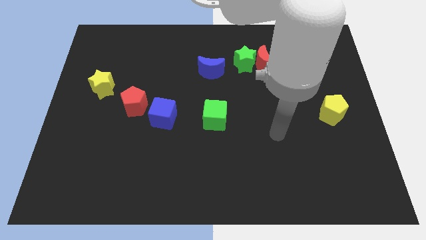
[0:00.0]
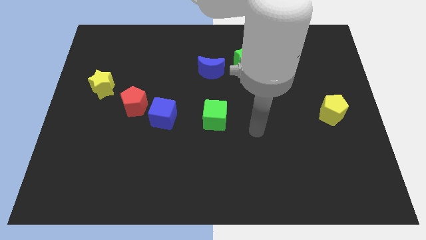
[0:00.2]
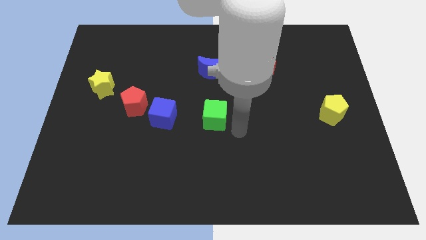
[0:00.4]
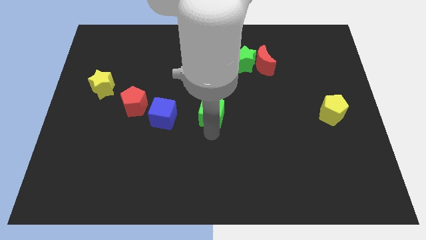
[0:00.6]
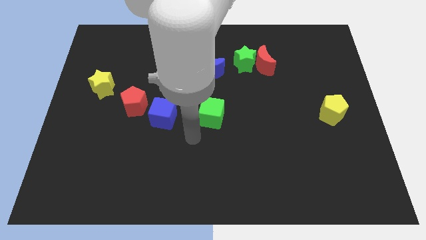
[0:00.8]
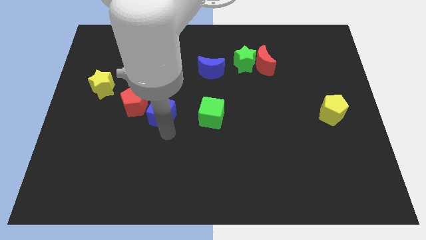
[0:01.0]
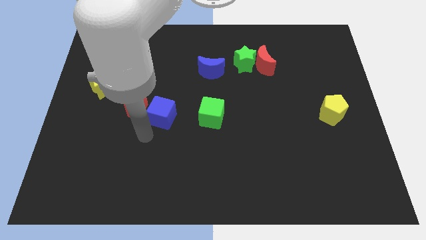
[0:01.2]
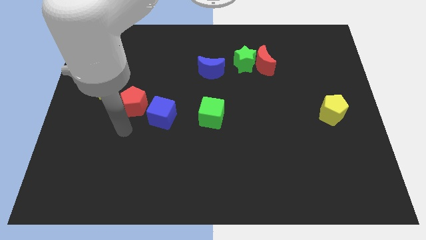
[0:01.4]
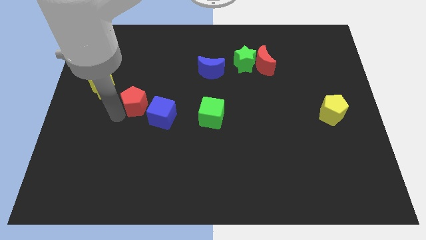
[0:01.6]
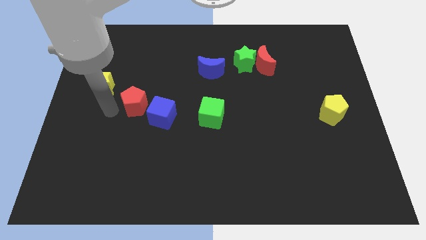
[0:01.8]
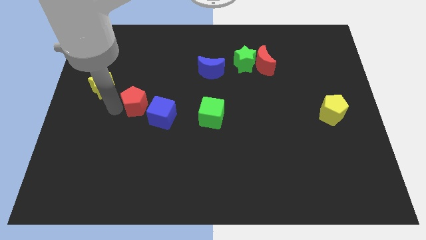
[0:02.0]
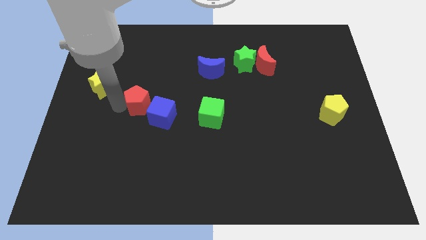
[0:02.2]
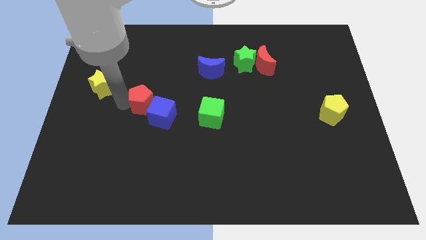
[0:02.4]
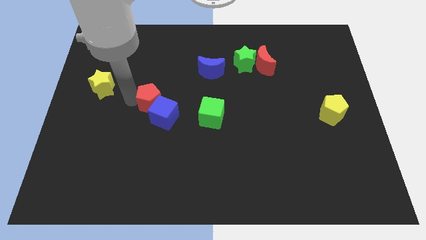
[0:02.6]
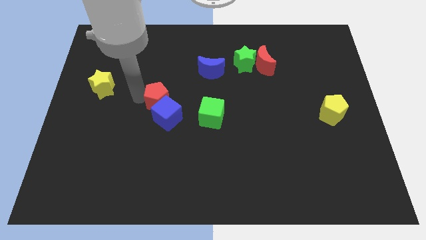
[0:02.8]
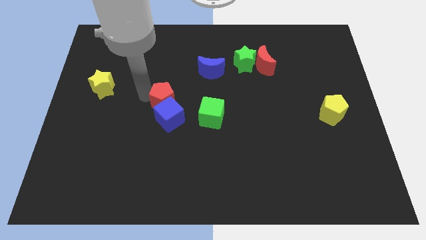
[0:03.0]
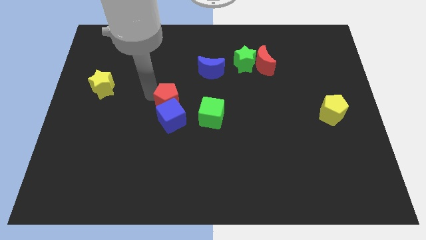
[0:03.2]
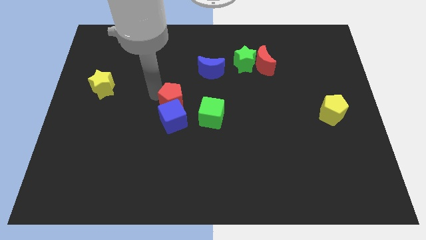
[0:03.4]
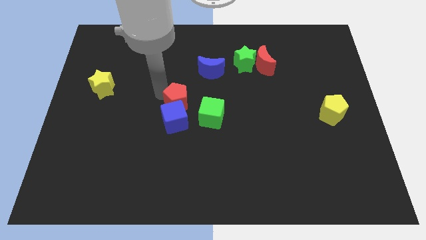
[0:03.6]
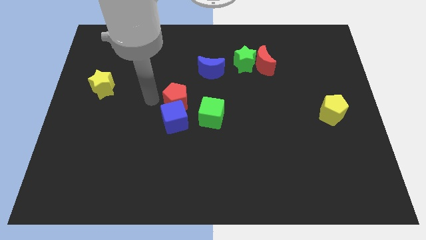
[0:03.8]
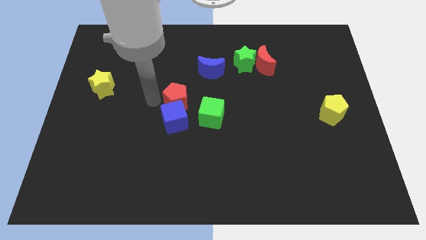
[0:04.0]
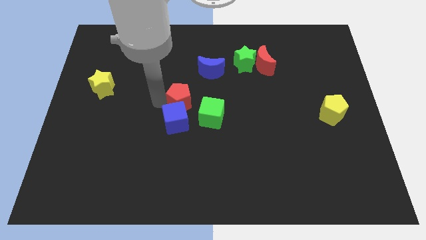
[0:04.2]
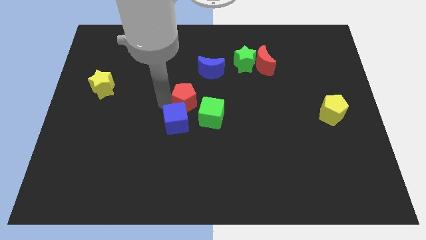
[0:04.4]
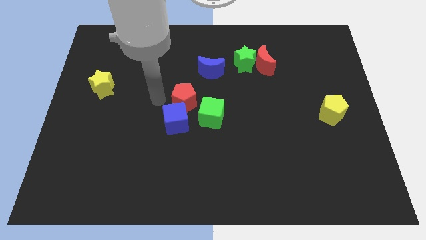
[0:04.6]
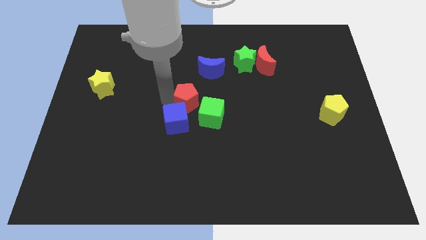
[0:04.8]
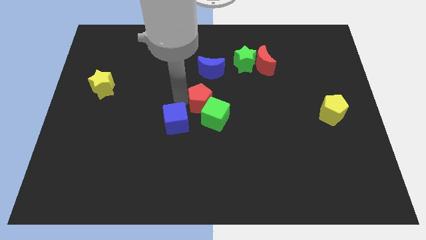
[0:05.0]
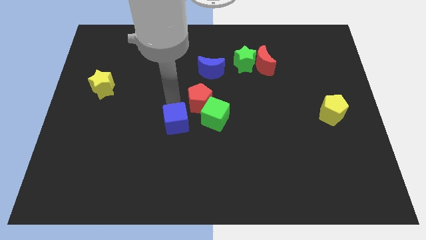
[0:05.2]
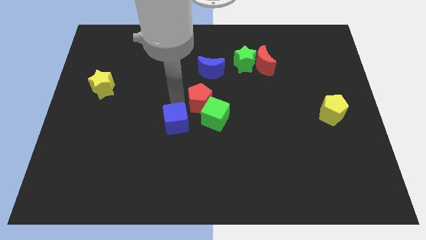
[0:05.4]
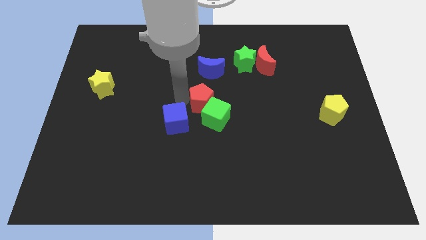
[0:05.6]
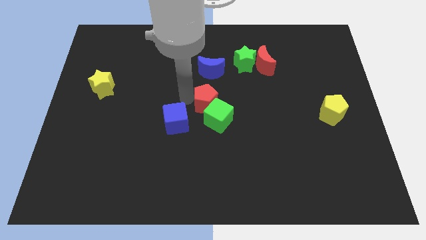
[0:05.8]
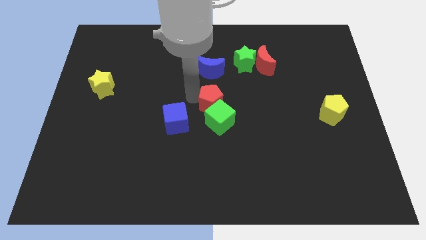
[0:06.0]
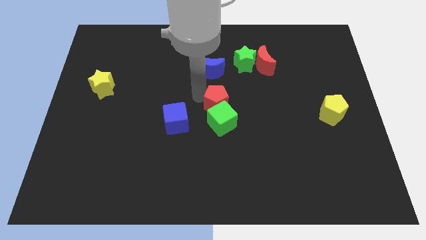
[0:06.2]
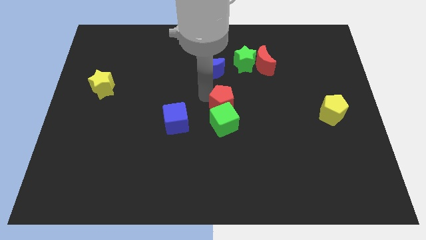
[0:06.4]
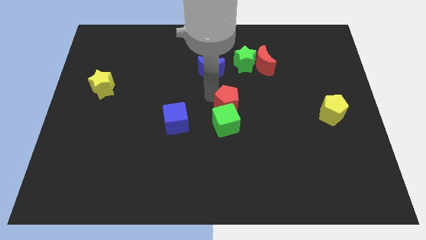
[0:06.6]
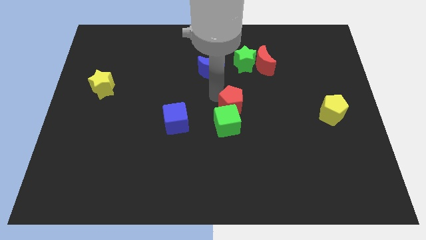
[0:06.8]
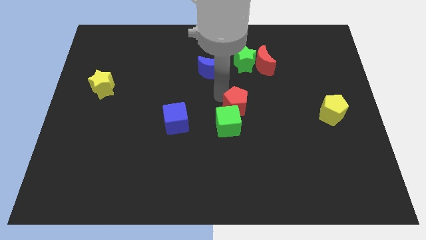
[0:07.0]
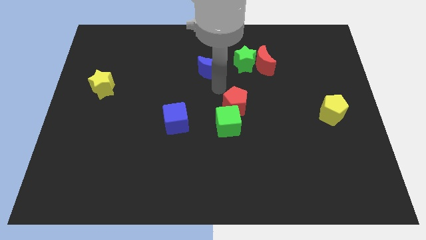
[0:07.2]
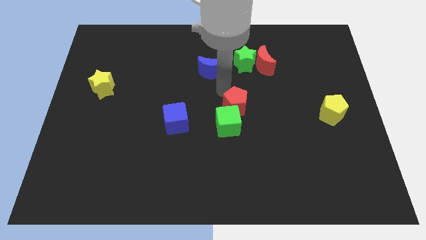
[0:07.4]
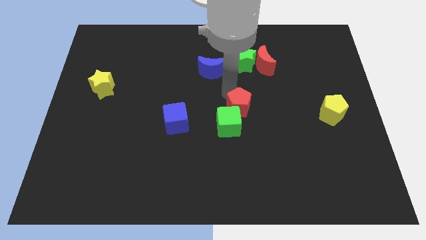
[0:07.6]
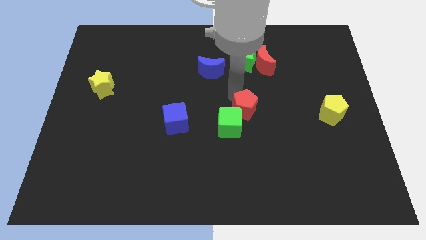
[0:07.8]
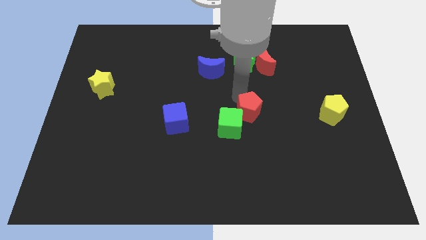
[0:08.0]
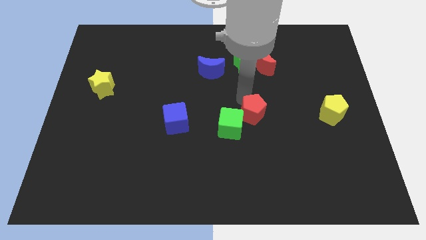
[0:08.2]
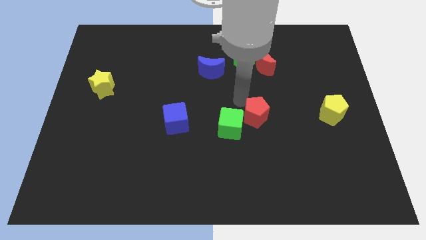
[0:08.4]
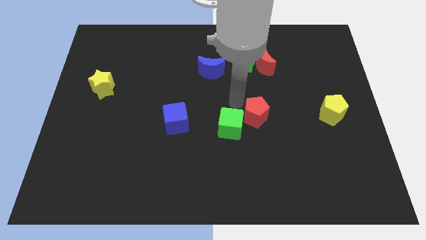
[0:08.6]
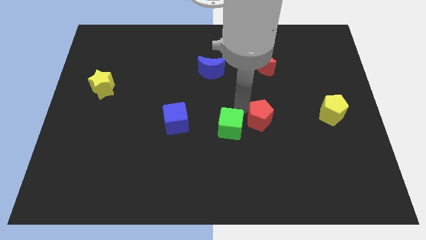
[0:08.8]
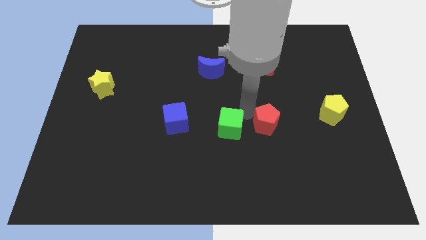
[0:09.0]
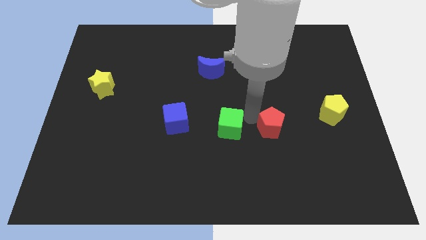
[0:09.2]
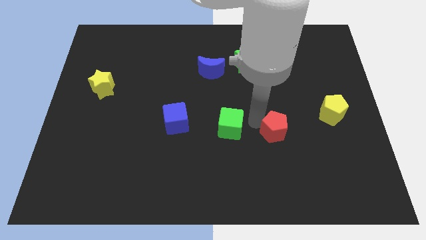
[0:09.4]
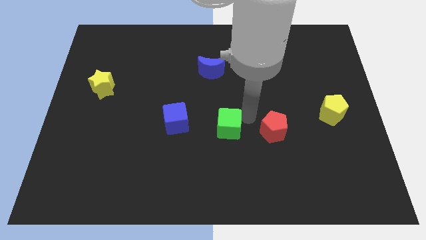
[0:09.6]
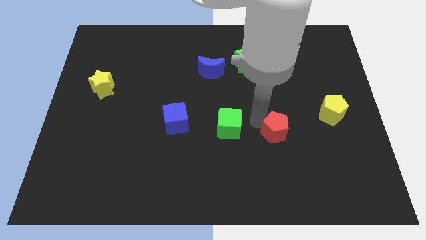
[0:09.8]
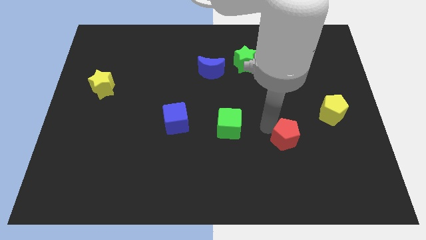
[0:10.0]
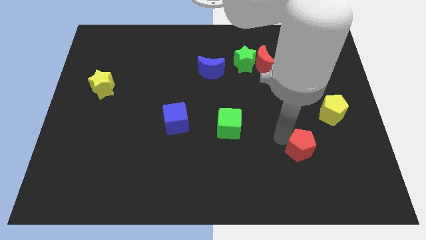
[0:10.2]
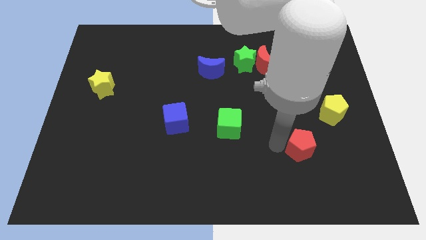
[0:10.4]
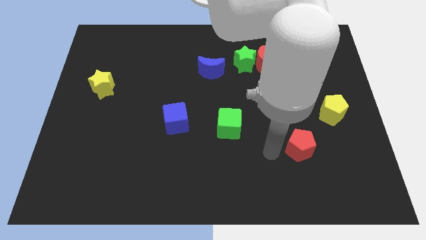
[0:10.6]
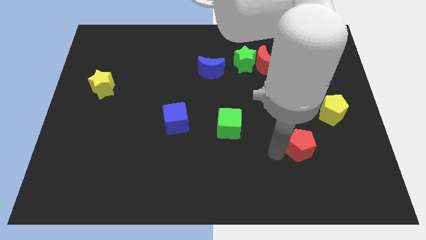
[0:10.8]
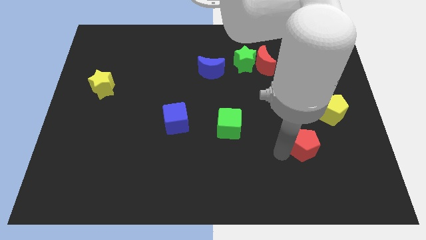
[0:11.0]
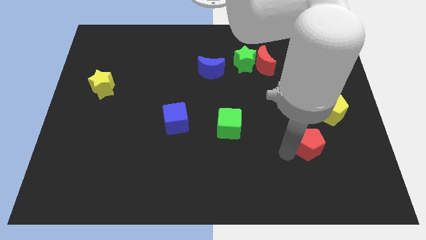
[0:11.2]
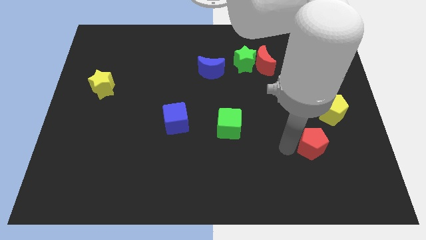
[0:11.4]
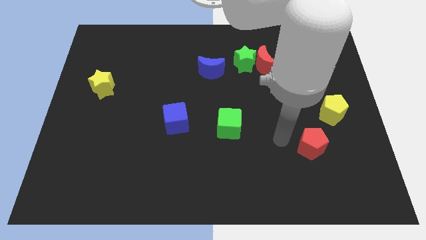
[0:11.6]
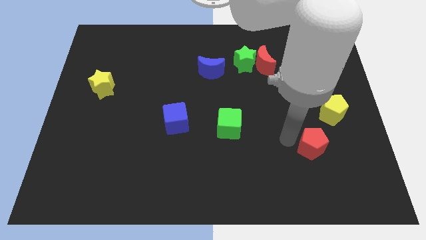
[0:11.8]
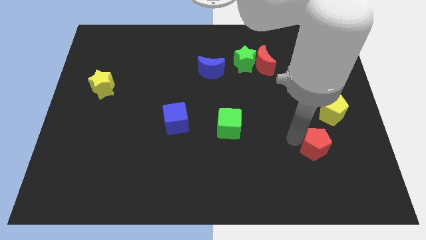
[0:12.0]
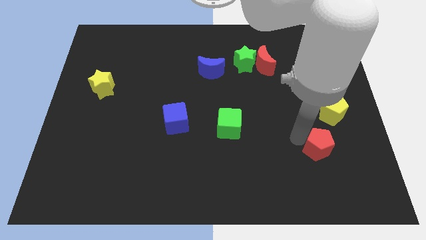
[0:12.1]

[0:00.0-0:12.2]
push the red pentagon below the yellow pentagon

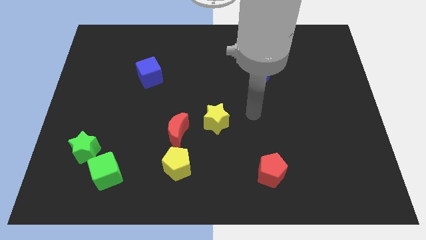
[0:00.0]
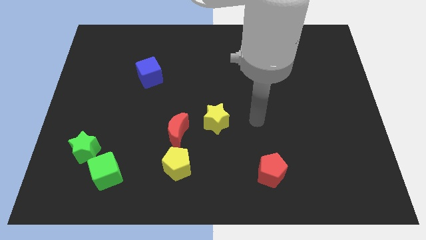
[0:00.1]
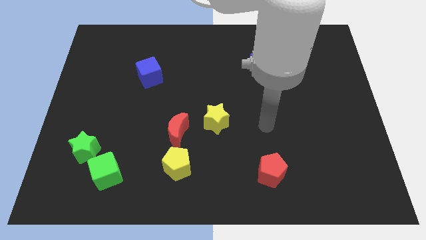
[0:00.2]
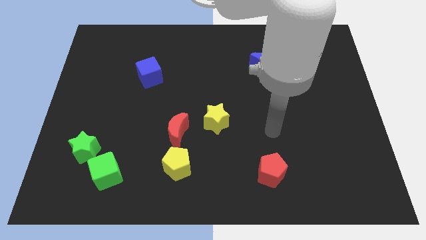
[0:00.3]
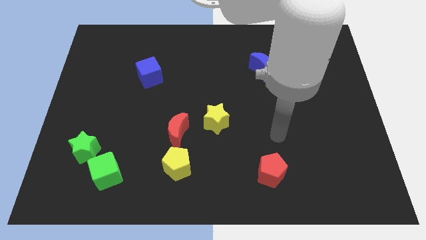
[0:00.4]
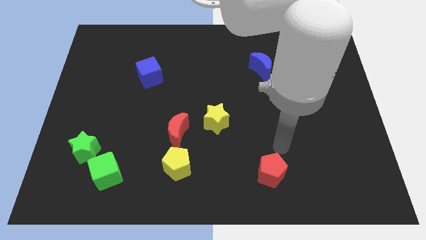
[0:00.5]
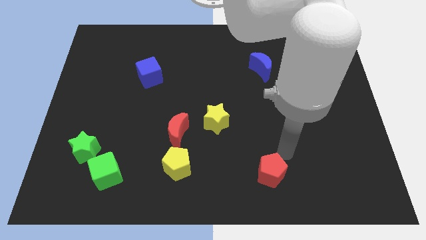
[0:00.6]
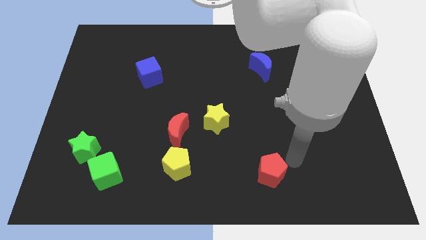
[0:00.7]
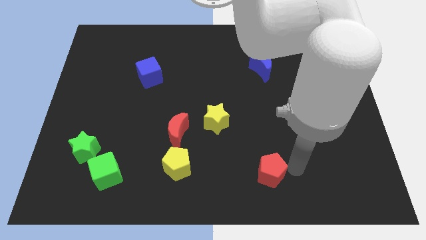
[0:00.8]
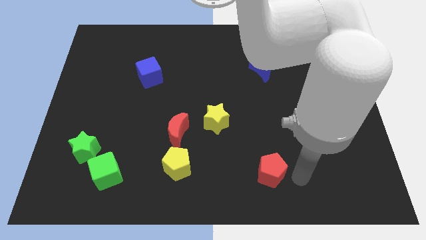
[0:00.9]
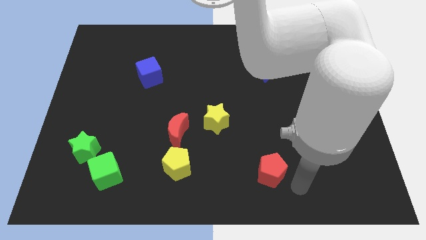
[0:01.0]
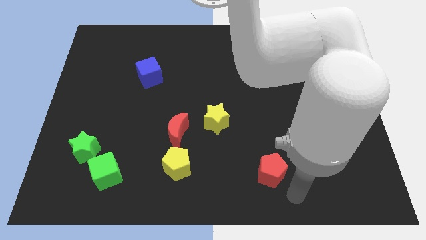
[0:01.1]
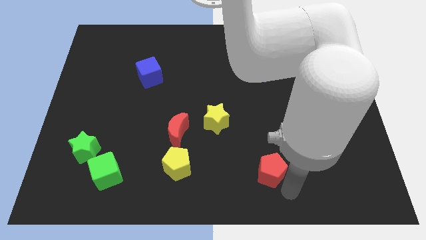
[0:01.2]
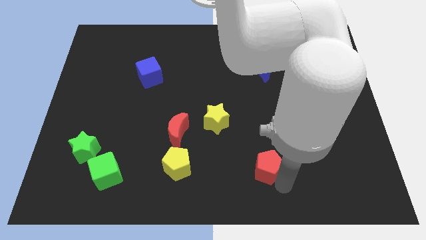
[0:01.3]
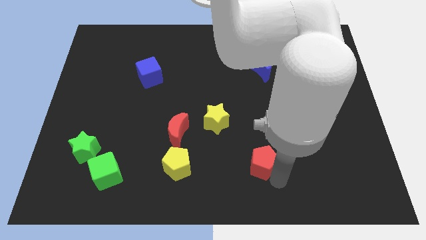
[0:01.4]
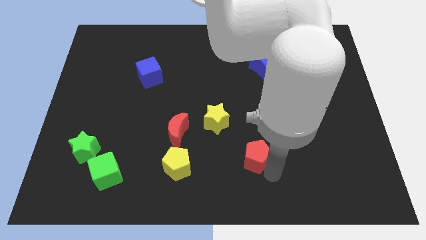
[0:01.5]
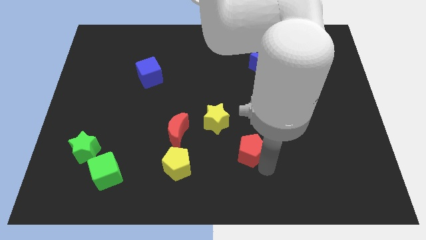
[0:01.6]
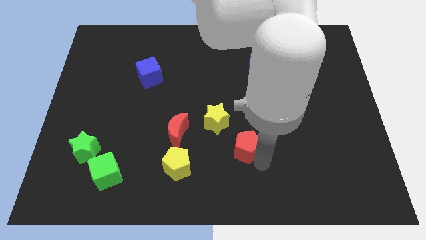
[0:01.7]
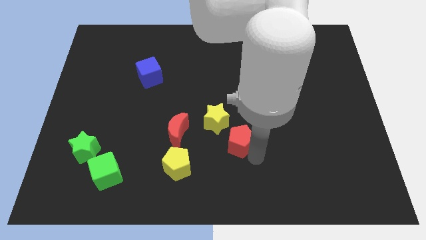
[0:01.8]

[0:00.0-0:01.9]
put the red pentagon just right of the red moon
